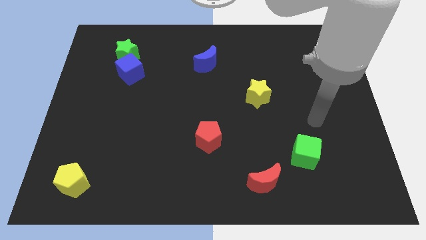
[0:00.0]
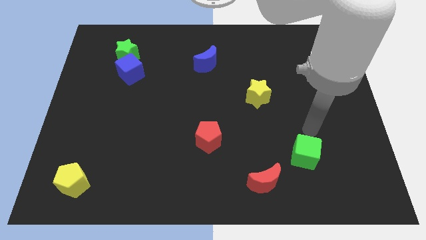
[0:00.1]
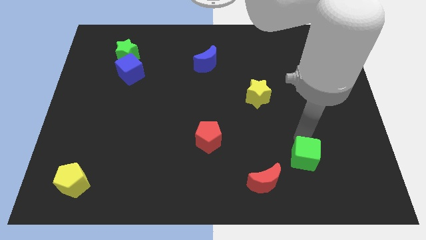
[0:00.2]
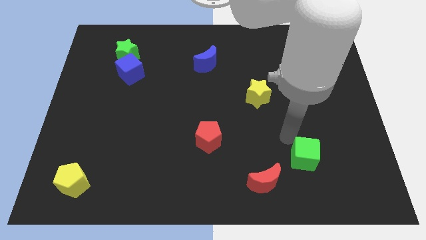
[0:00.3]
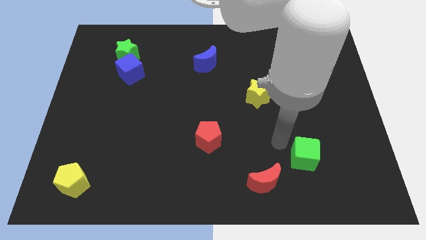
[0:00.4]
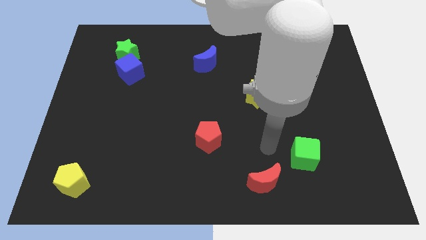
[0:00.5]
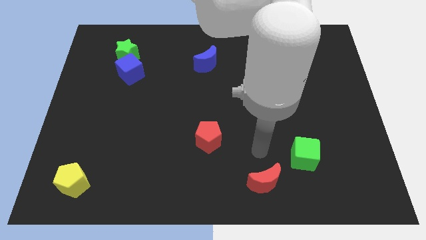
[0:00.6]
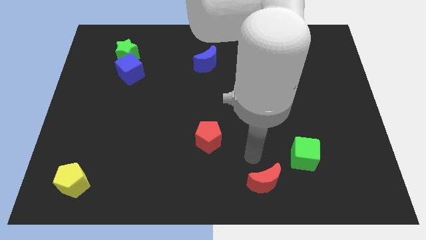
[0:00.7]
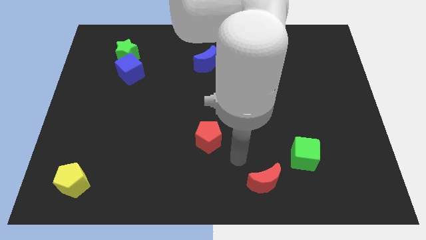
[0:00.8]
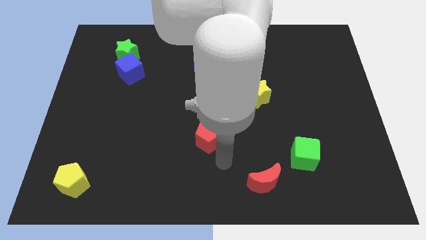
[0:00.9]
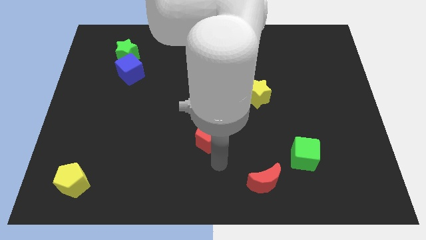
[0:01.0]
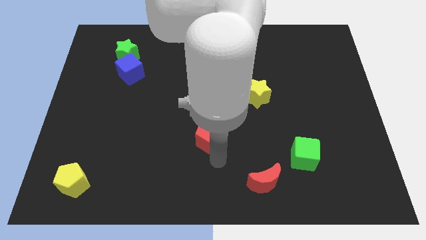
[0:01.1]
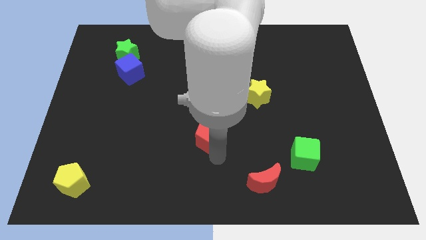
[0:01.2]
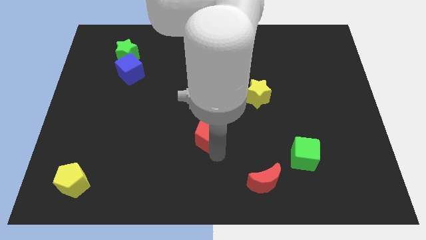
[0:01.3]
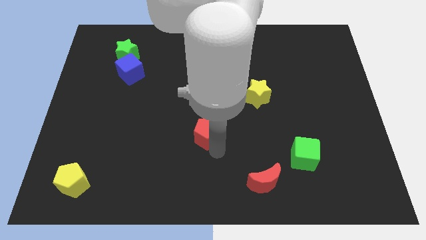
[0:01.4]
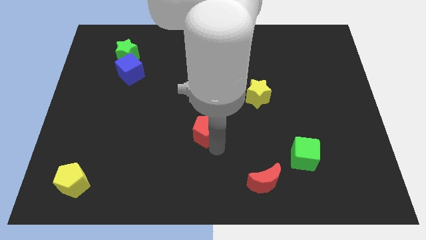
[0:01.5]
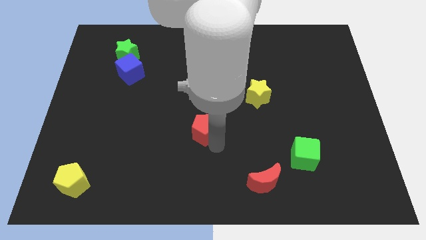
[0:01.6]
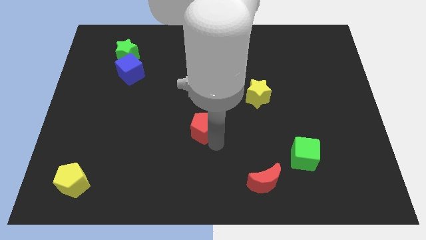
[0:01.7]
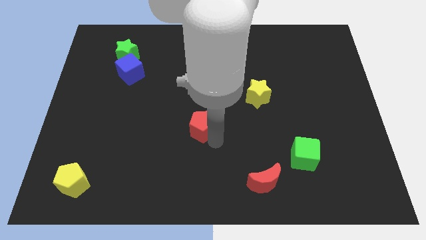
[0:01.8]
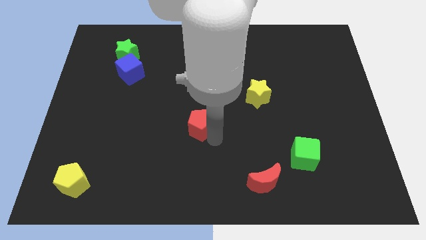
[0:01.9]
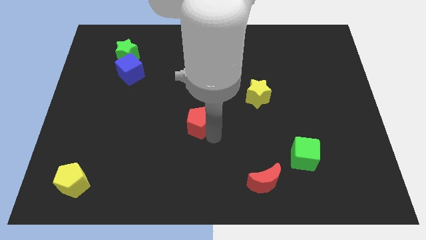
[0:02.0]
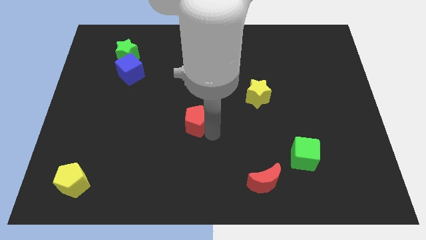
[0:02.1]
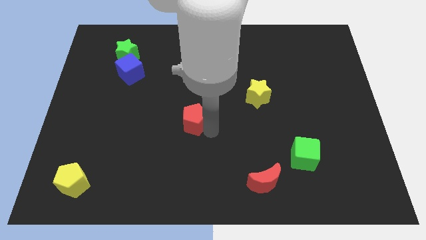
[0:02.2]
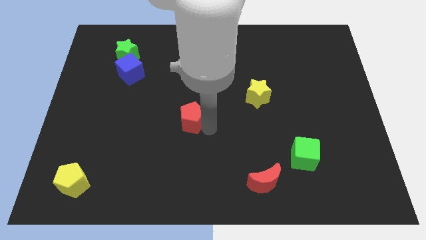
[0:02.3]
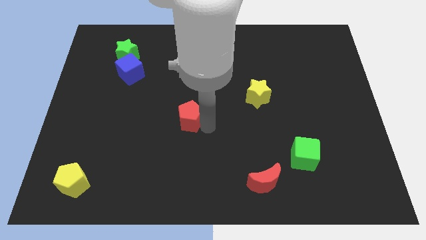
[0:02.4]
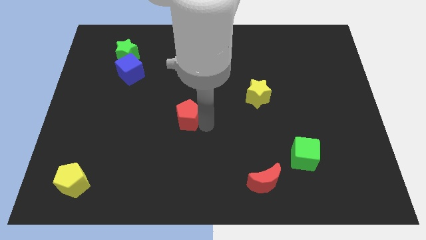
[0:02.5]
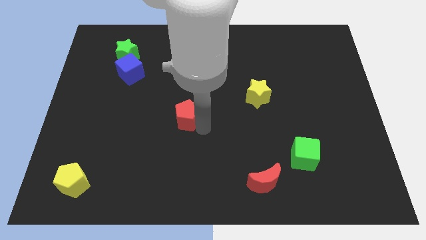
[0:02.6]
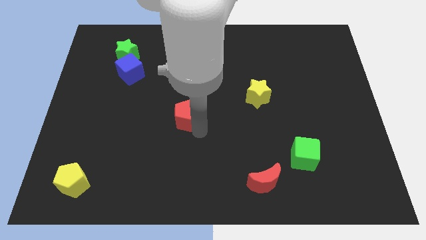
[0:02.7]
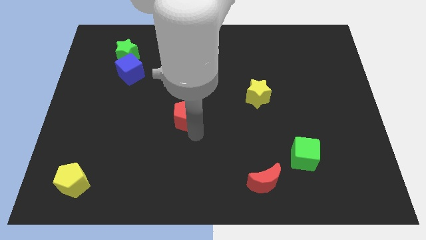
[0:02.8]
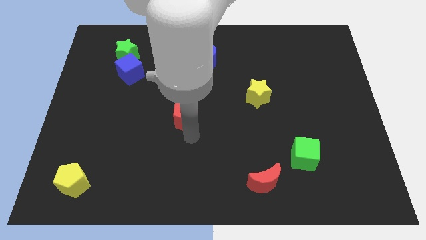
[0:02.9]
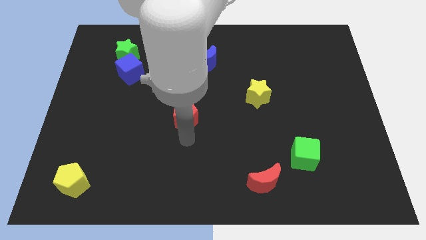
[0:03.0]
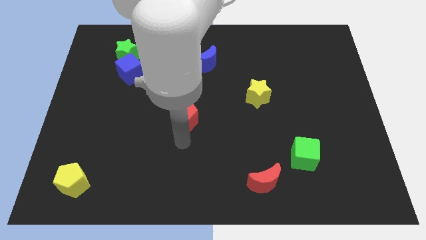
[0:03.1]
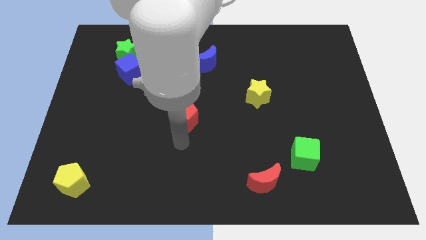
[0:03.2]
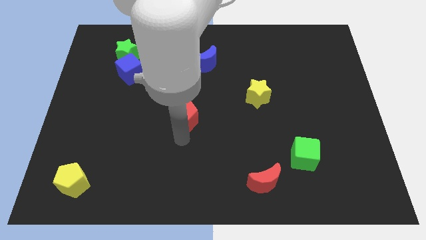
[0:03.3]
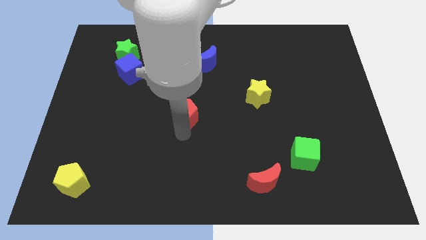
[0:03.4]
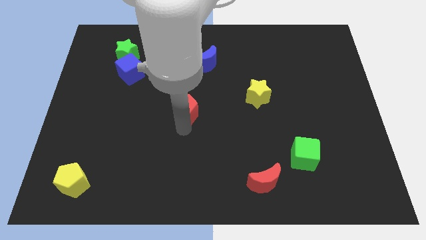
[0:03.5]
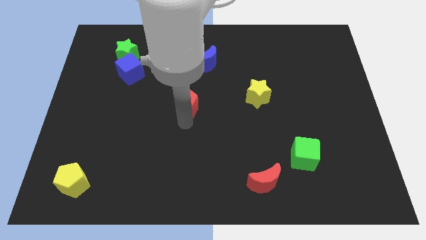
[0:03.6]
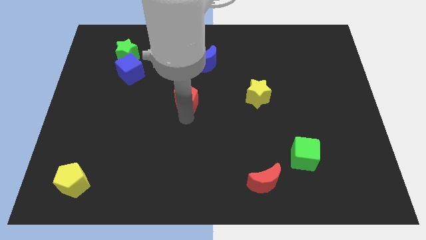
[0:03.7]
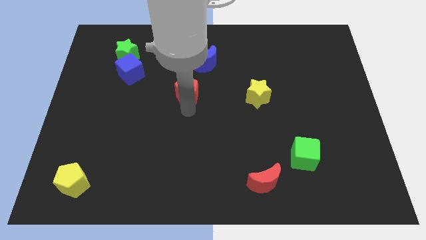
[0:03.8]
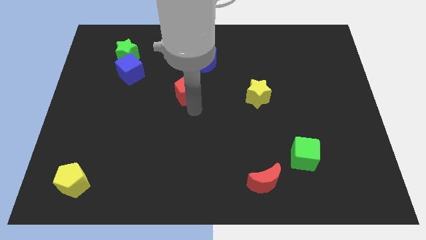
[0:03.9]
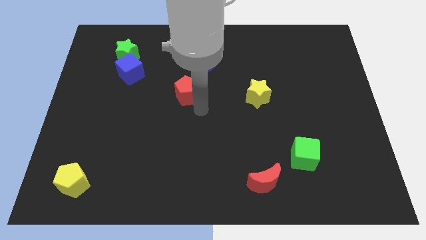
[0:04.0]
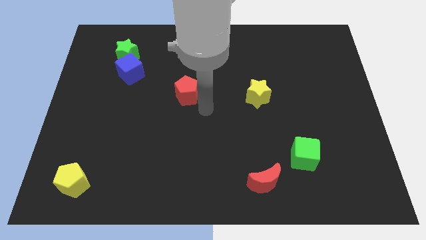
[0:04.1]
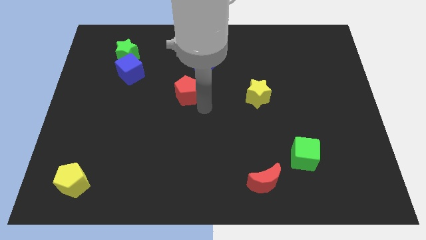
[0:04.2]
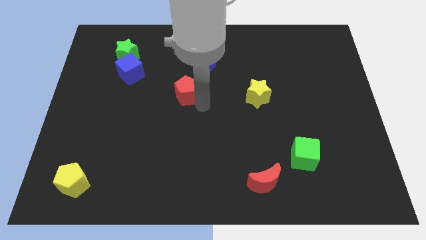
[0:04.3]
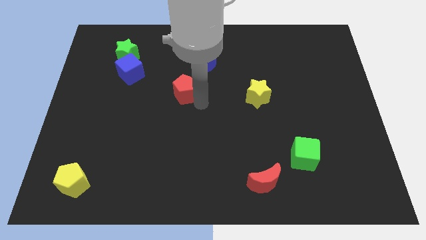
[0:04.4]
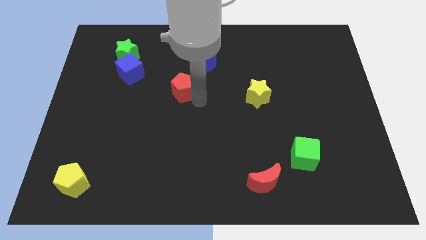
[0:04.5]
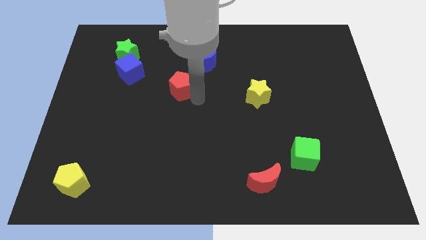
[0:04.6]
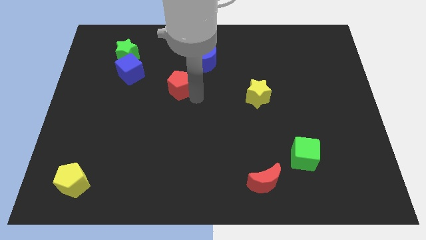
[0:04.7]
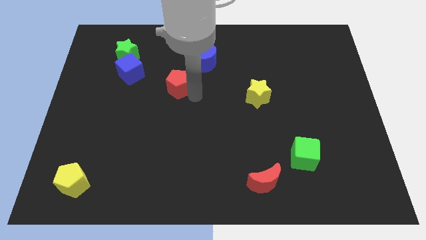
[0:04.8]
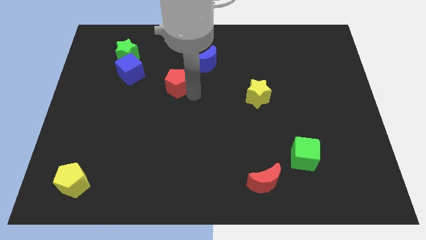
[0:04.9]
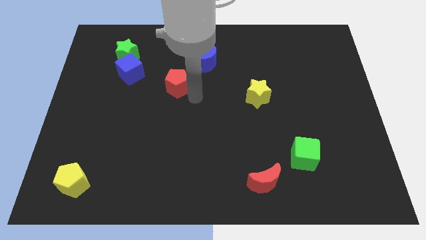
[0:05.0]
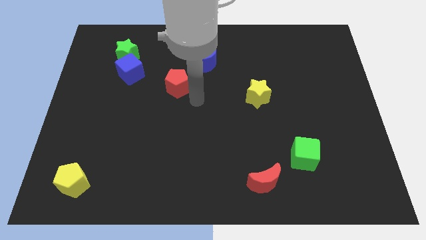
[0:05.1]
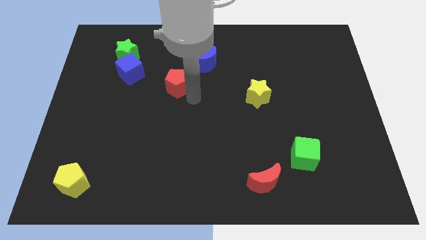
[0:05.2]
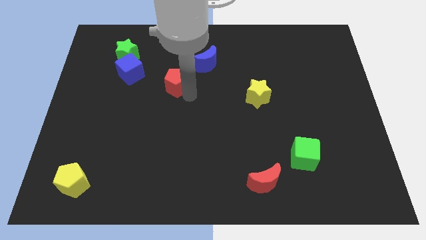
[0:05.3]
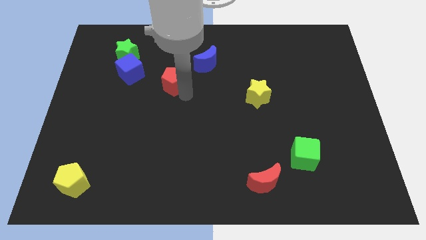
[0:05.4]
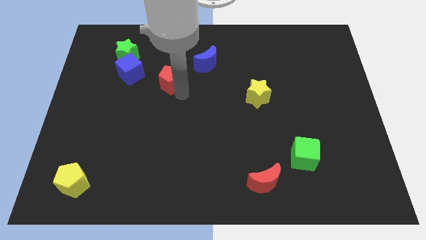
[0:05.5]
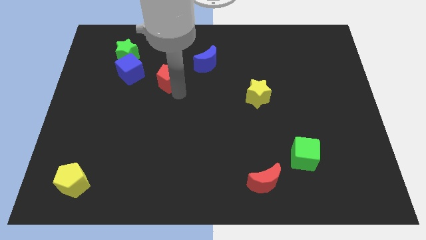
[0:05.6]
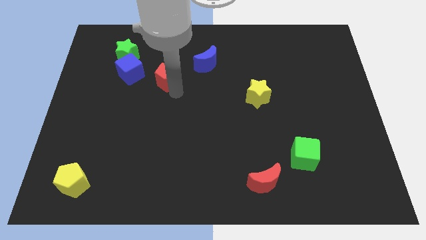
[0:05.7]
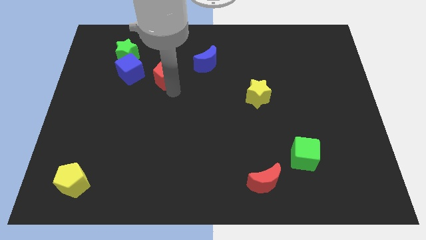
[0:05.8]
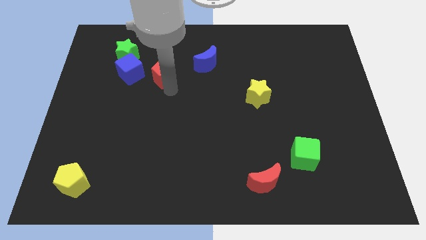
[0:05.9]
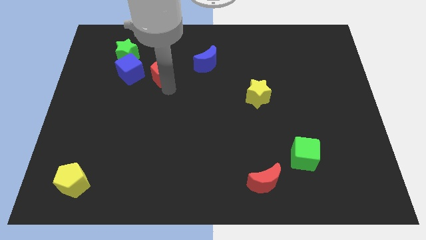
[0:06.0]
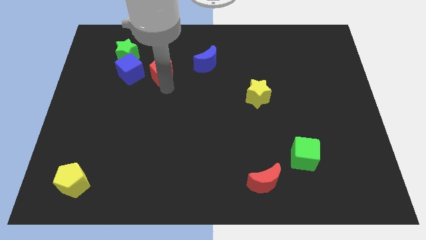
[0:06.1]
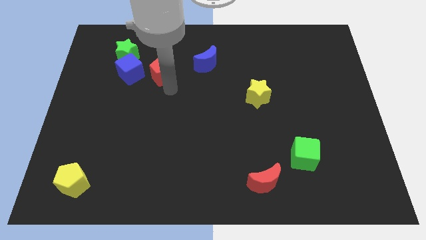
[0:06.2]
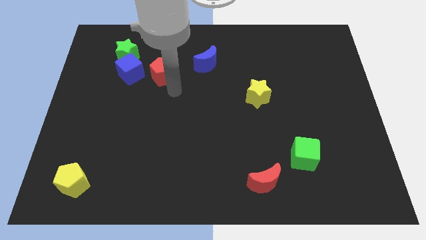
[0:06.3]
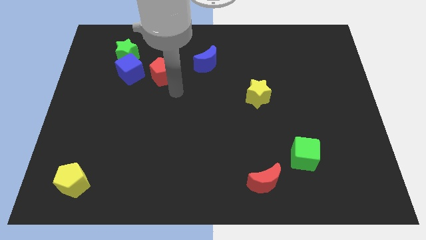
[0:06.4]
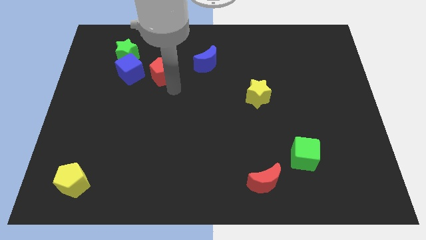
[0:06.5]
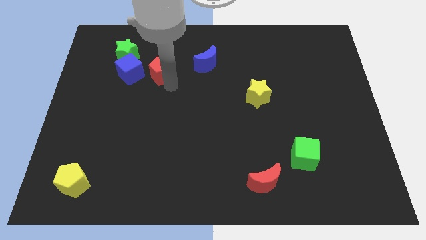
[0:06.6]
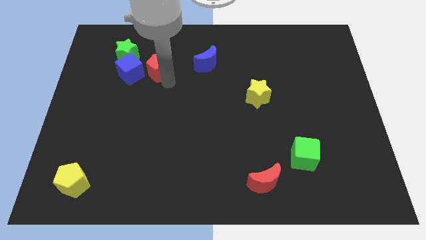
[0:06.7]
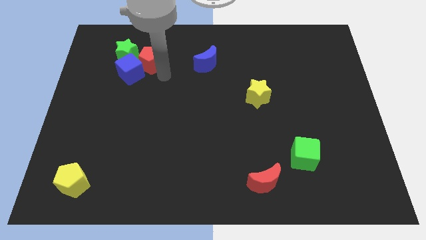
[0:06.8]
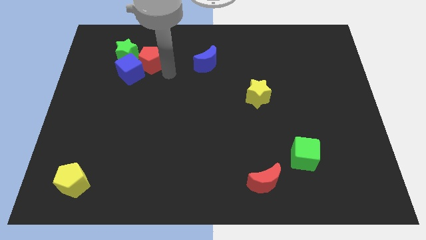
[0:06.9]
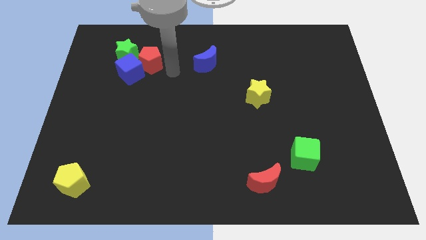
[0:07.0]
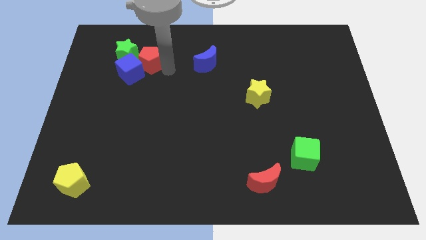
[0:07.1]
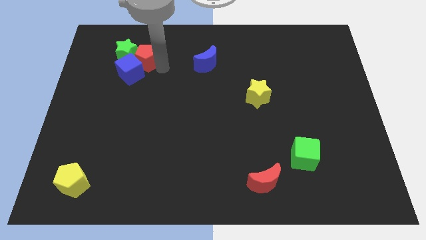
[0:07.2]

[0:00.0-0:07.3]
put the red pentagon towards the green star
